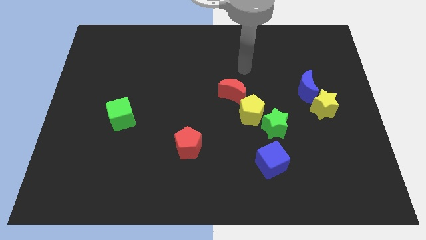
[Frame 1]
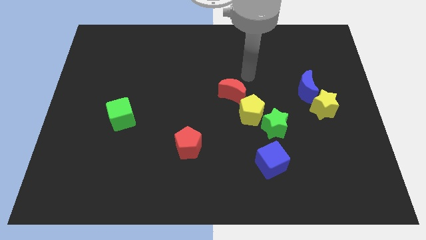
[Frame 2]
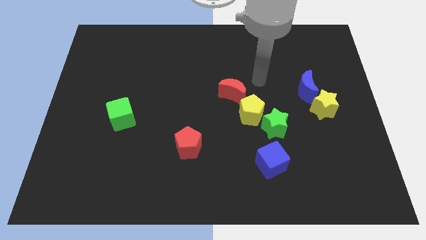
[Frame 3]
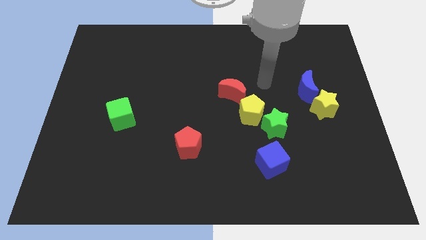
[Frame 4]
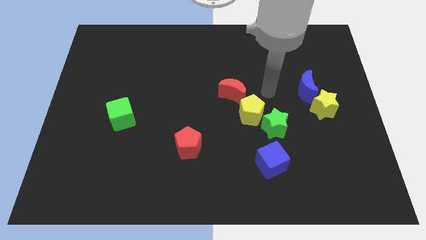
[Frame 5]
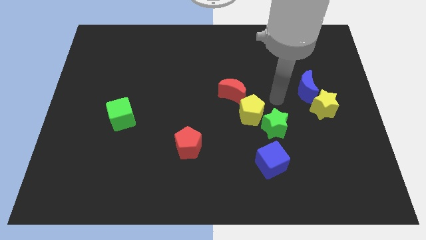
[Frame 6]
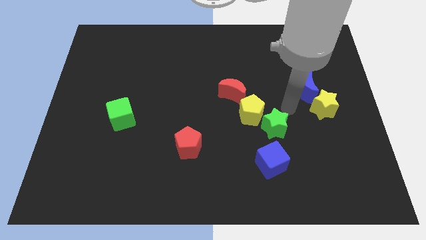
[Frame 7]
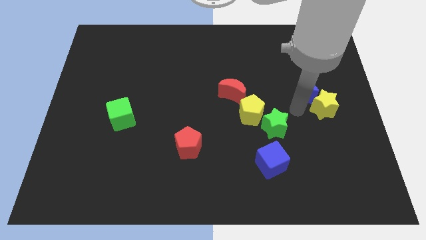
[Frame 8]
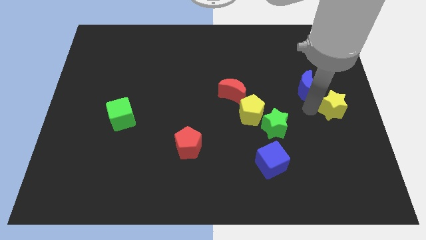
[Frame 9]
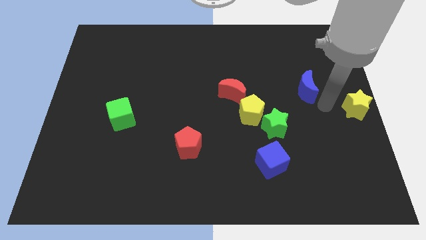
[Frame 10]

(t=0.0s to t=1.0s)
separate the blue moon from the yellow star

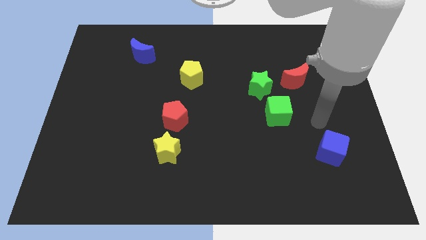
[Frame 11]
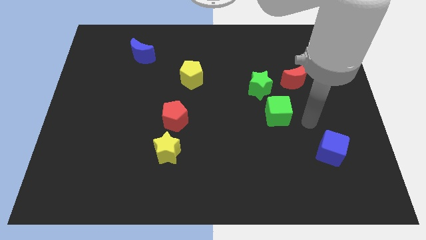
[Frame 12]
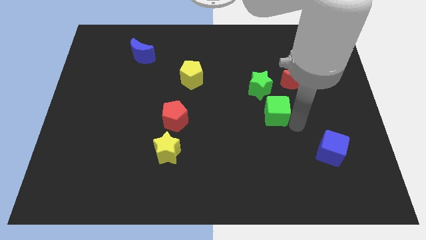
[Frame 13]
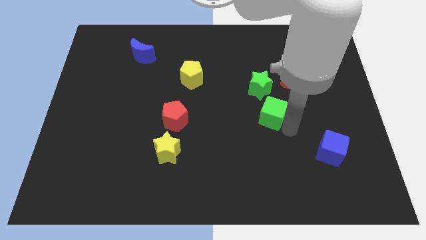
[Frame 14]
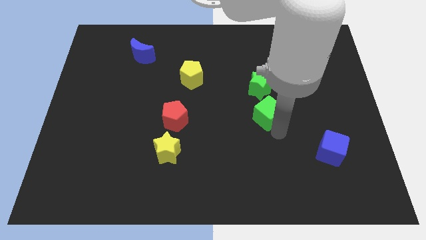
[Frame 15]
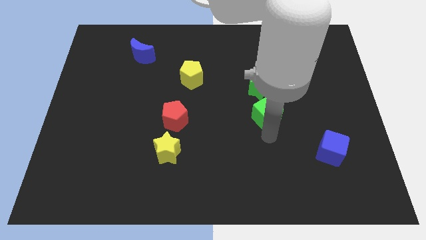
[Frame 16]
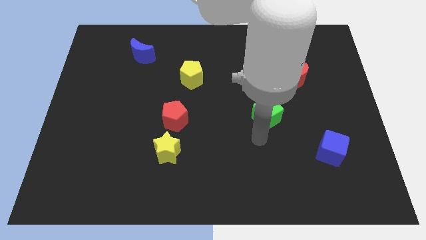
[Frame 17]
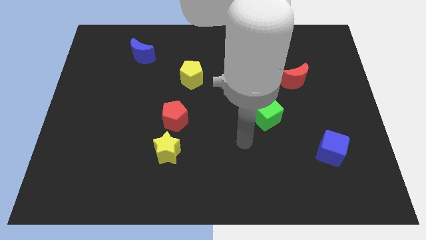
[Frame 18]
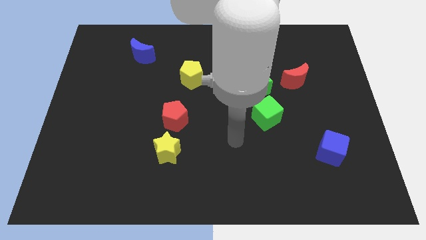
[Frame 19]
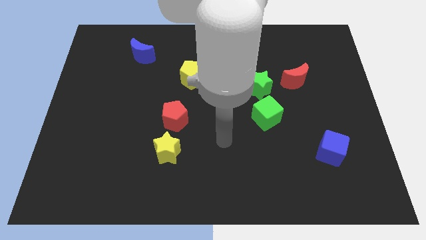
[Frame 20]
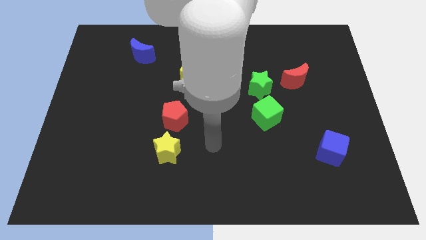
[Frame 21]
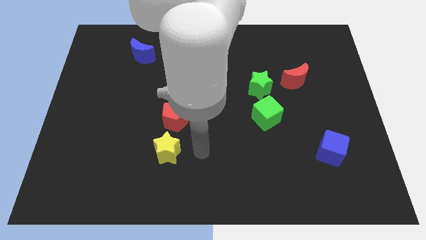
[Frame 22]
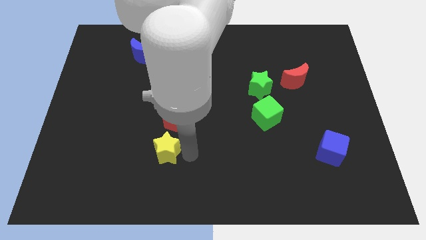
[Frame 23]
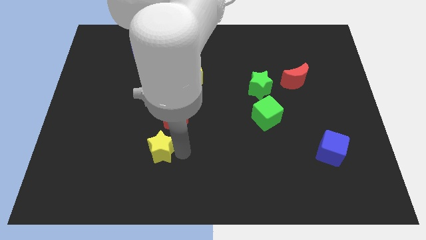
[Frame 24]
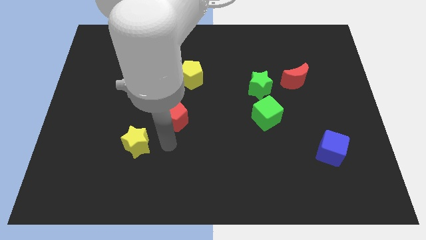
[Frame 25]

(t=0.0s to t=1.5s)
move the red pentagon away from the yellow star

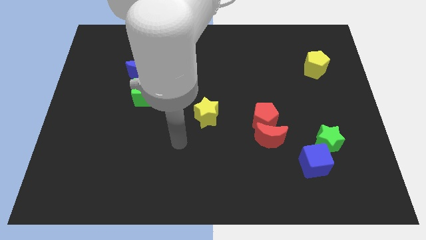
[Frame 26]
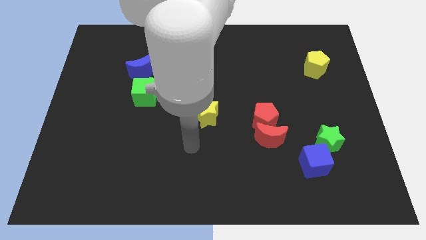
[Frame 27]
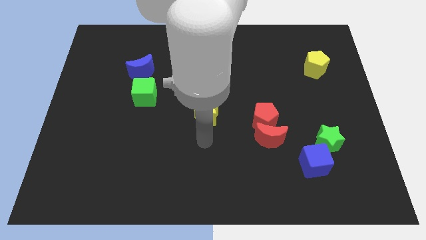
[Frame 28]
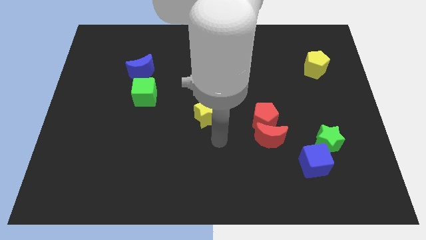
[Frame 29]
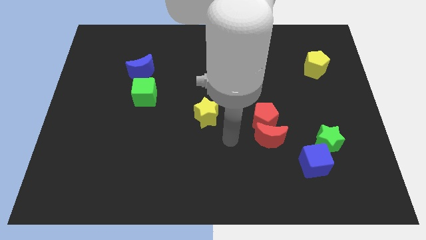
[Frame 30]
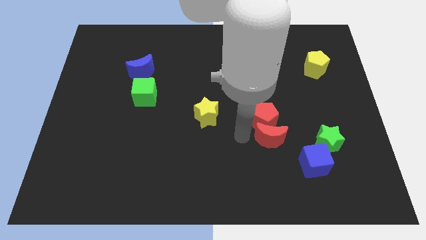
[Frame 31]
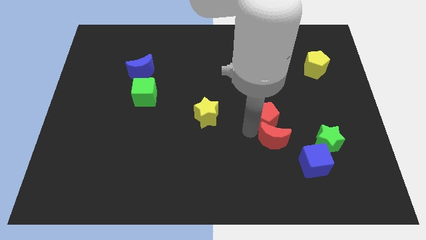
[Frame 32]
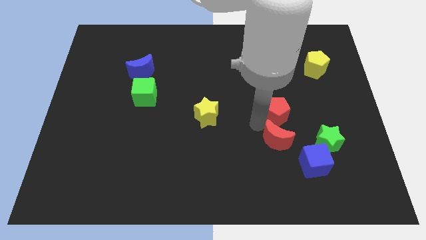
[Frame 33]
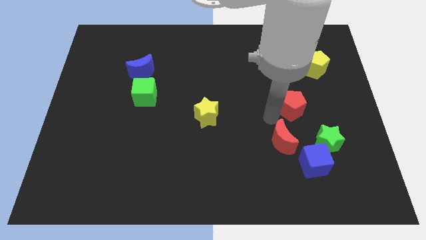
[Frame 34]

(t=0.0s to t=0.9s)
move the red moon away from the red pentagon

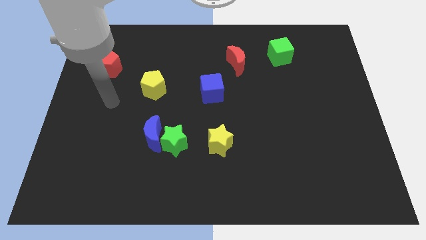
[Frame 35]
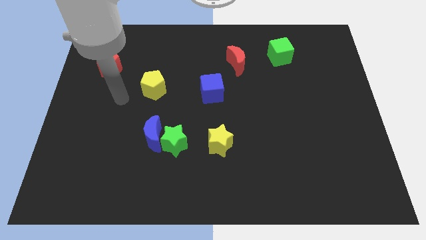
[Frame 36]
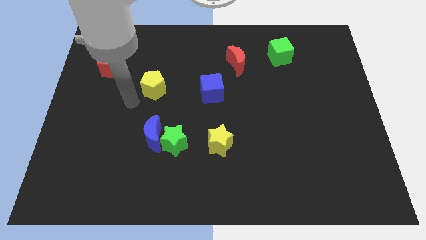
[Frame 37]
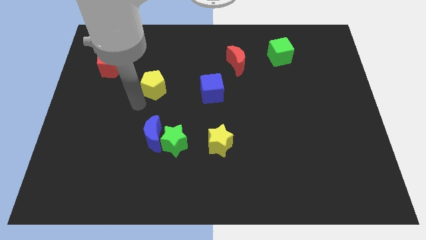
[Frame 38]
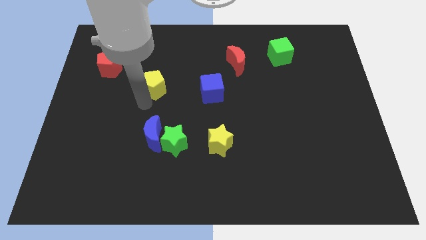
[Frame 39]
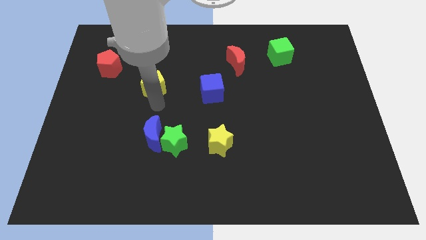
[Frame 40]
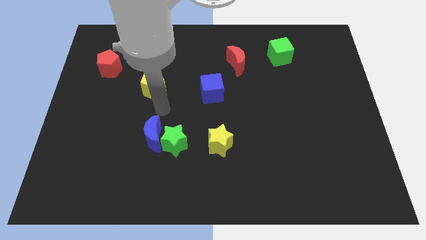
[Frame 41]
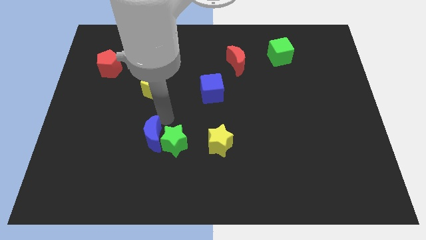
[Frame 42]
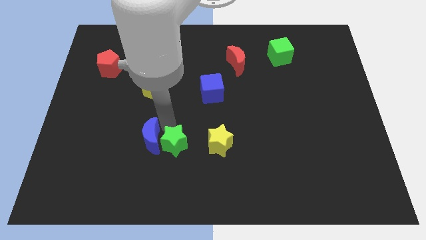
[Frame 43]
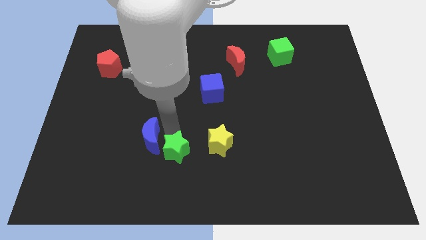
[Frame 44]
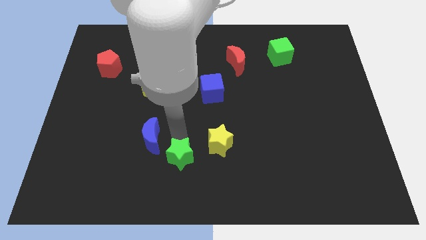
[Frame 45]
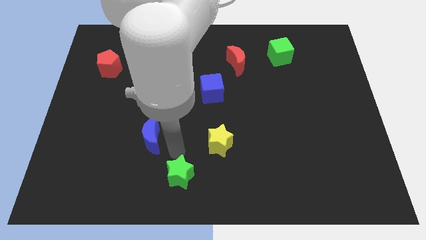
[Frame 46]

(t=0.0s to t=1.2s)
pull the blue moon apart from the green star

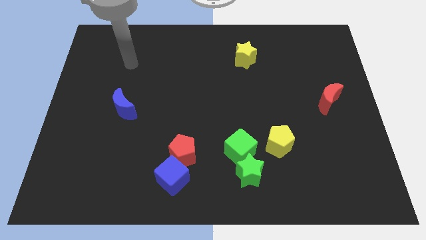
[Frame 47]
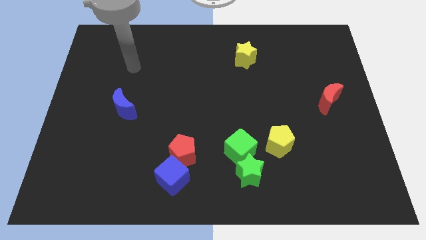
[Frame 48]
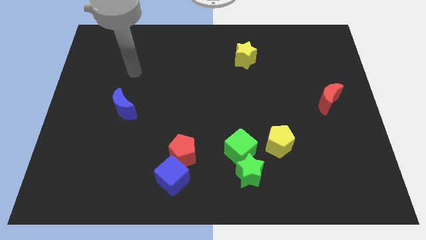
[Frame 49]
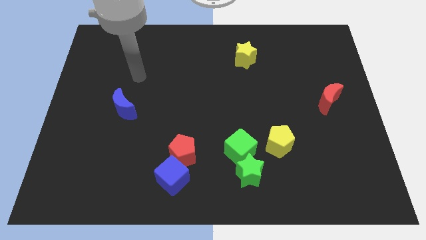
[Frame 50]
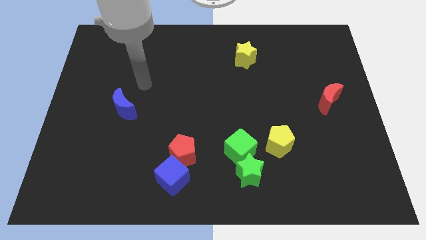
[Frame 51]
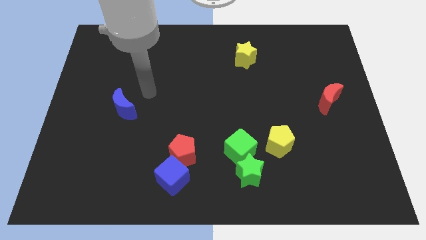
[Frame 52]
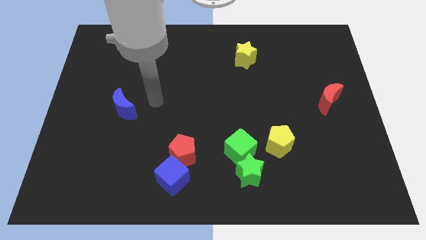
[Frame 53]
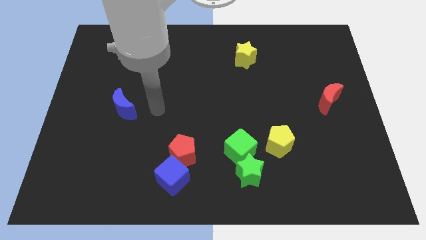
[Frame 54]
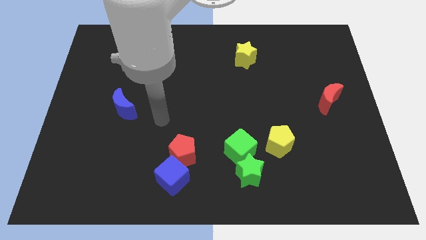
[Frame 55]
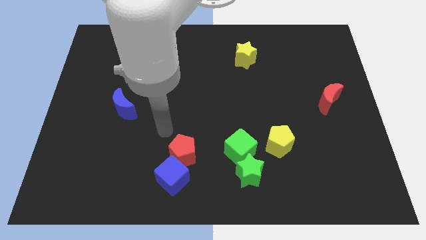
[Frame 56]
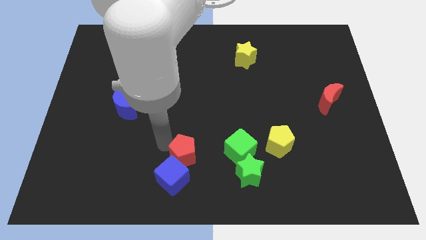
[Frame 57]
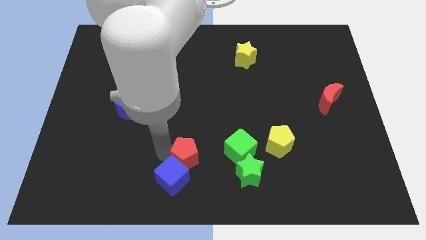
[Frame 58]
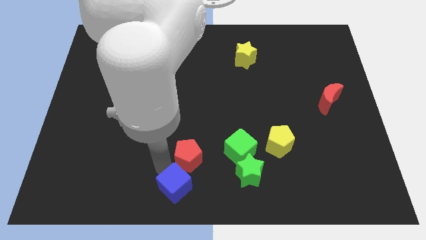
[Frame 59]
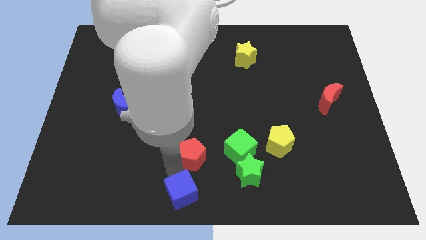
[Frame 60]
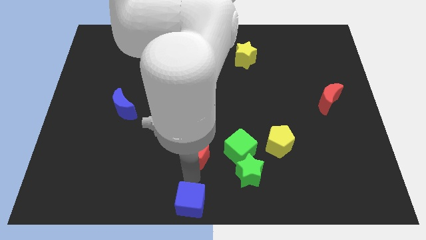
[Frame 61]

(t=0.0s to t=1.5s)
move the red pentagon away from the blue cube

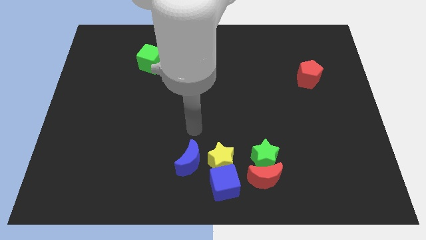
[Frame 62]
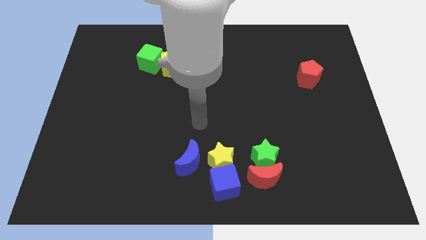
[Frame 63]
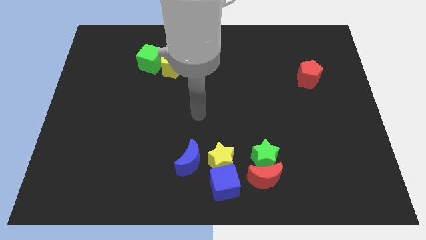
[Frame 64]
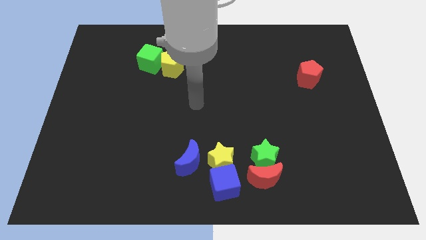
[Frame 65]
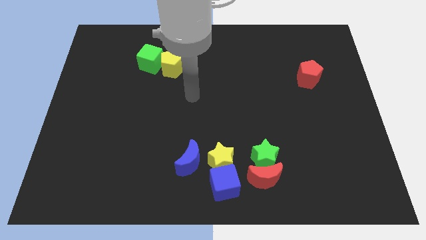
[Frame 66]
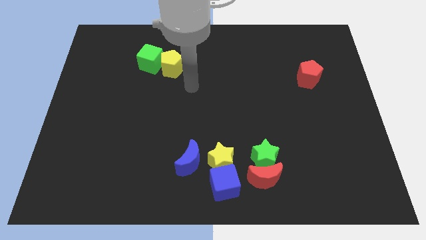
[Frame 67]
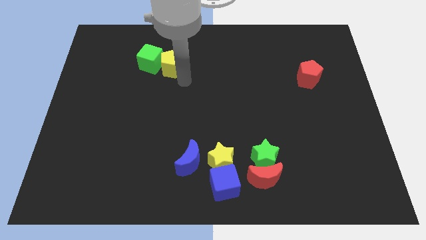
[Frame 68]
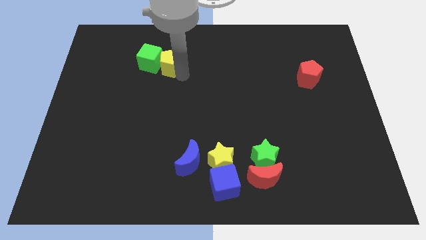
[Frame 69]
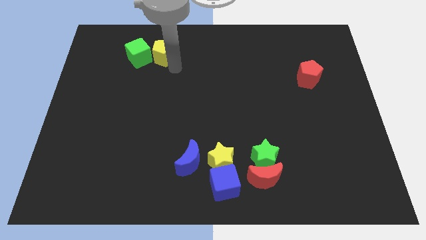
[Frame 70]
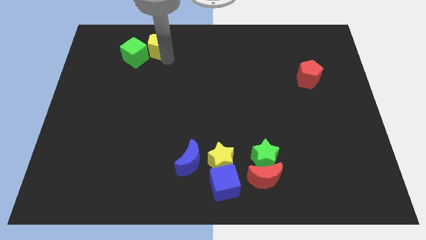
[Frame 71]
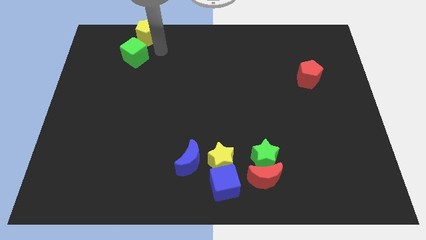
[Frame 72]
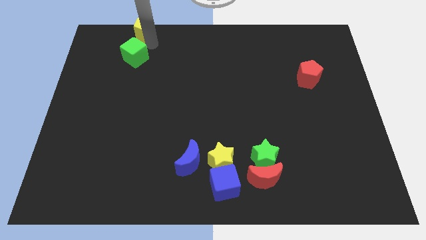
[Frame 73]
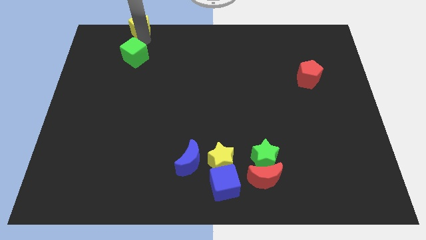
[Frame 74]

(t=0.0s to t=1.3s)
separate the green cube from the yellow pentagon

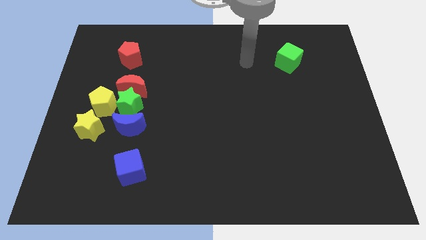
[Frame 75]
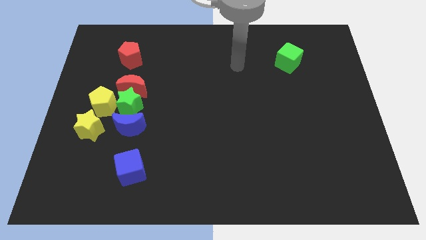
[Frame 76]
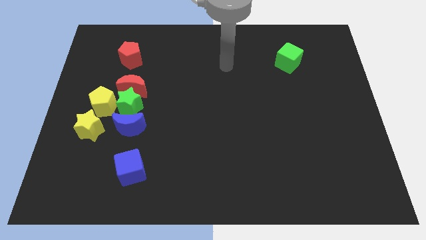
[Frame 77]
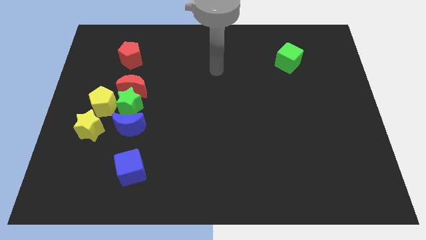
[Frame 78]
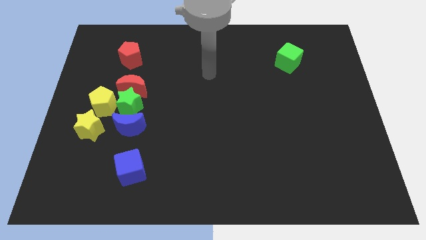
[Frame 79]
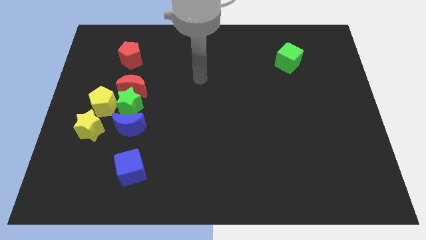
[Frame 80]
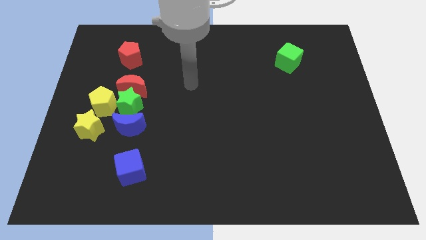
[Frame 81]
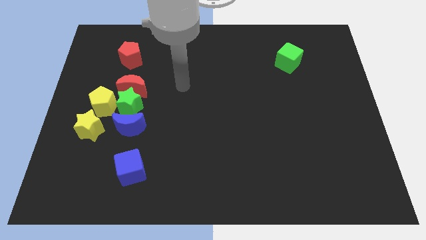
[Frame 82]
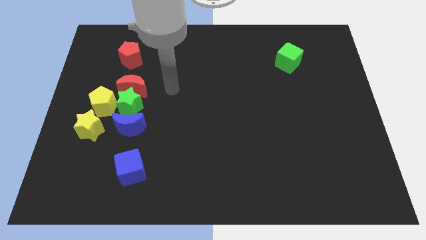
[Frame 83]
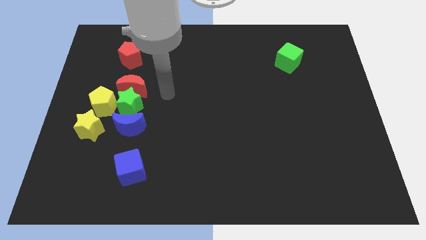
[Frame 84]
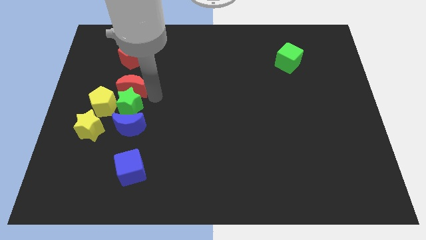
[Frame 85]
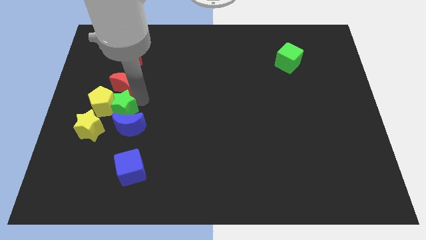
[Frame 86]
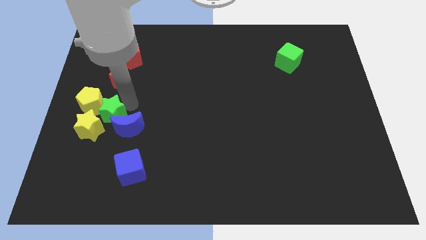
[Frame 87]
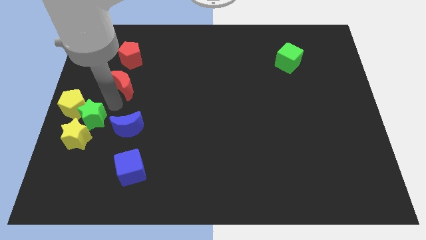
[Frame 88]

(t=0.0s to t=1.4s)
pull the red moon apart from the green star and yellow pentagon

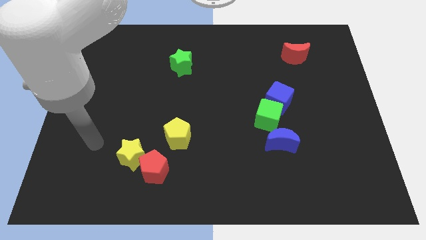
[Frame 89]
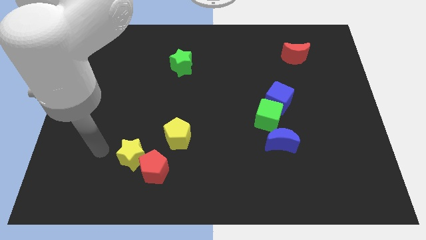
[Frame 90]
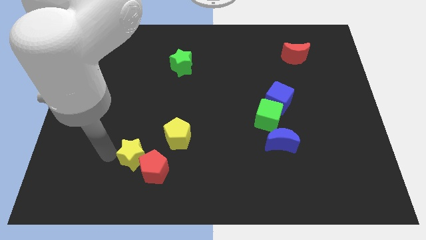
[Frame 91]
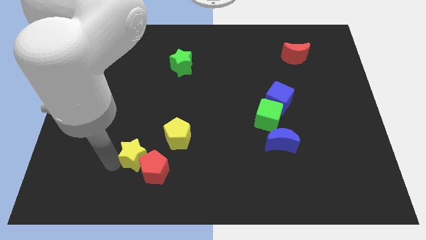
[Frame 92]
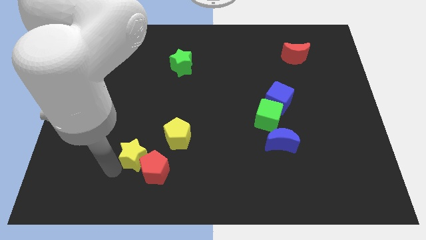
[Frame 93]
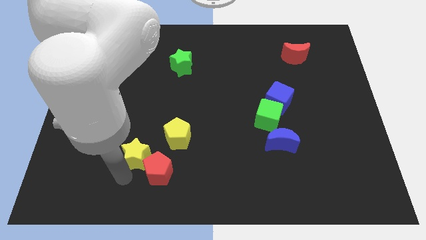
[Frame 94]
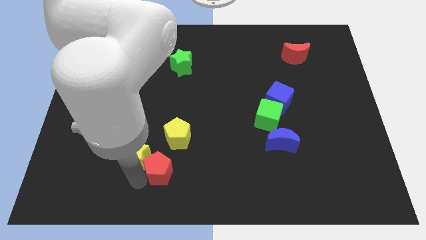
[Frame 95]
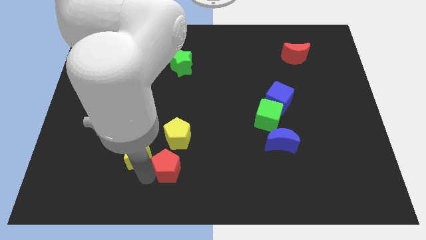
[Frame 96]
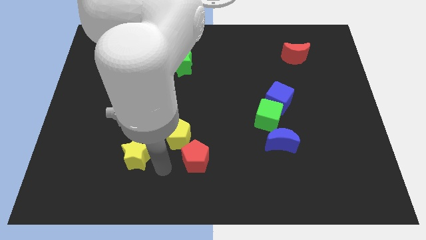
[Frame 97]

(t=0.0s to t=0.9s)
move the yellow star away from the red pentagon
